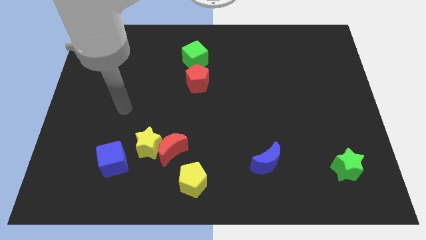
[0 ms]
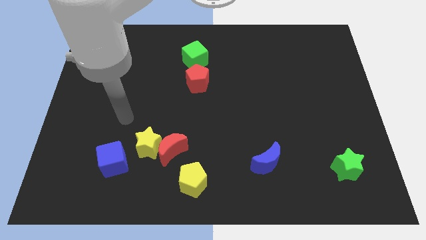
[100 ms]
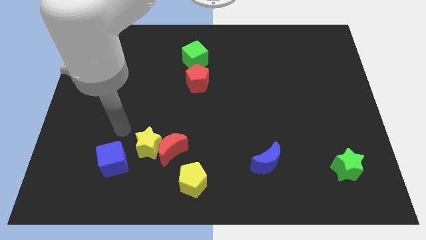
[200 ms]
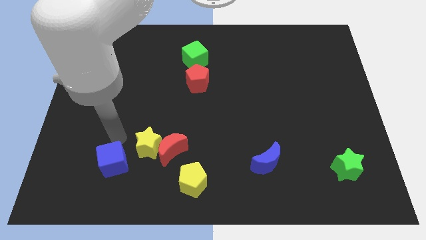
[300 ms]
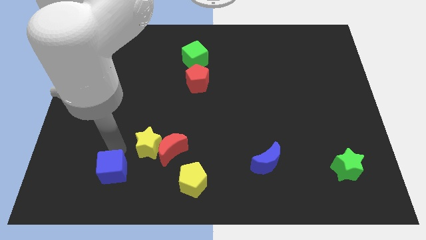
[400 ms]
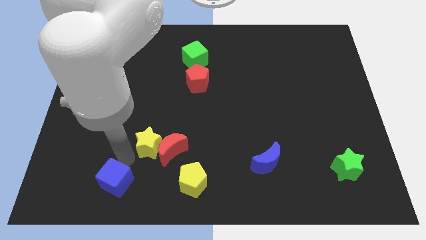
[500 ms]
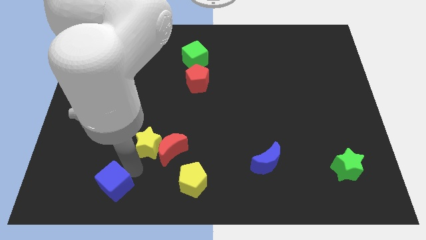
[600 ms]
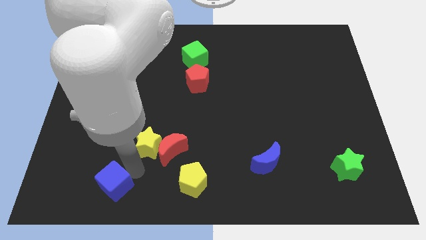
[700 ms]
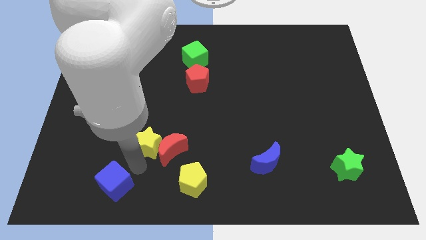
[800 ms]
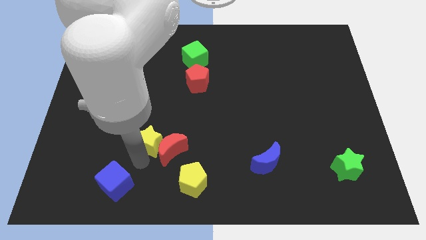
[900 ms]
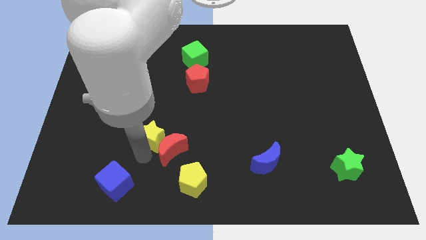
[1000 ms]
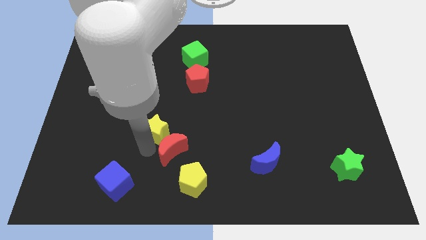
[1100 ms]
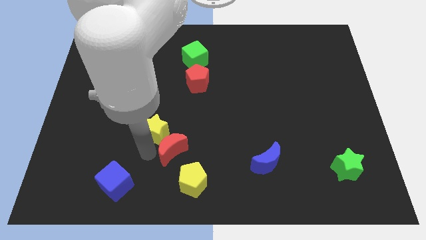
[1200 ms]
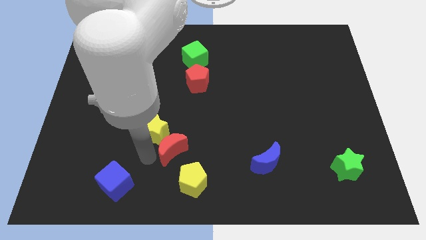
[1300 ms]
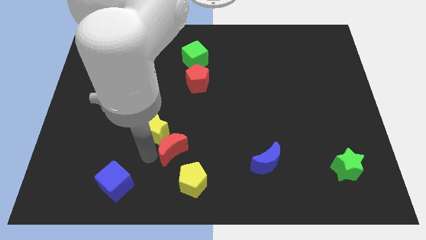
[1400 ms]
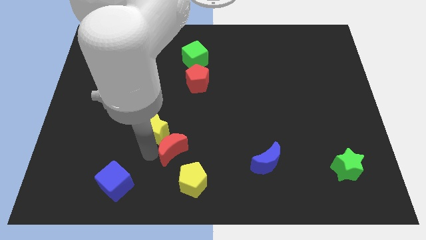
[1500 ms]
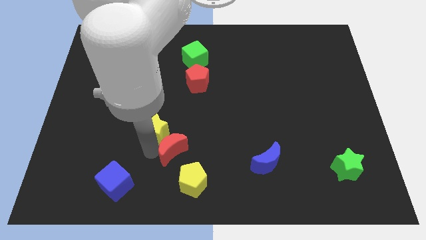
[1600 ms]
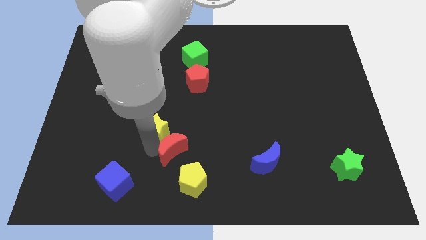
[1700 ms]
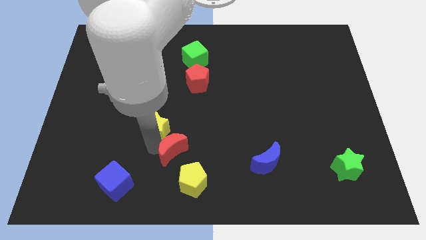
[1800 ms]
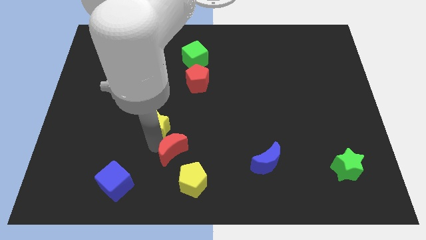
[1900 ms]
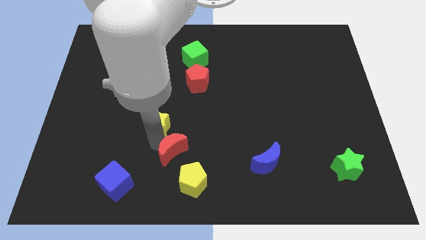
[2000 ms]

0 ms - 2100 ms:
pull the yellow star apart from the red moon and blue cube

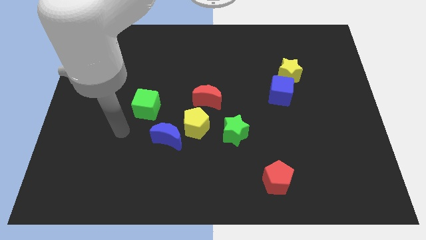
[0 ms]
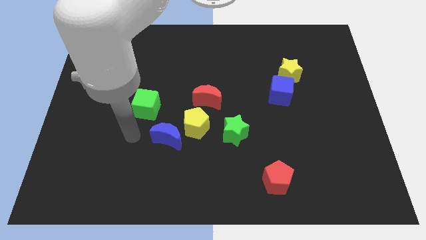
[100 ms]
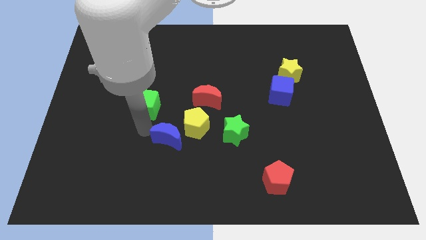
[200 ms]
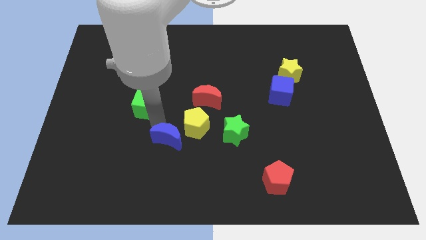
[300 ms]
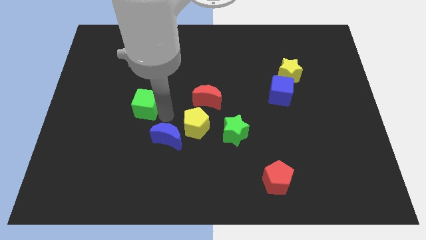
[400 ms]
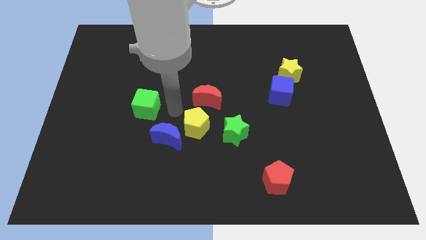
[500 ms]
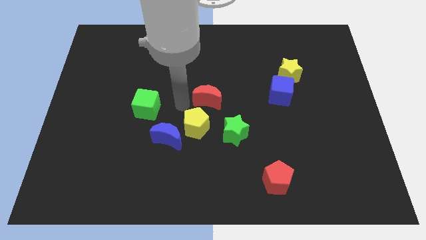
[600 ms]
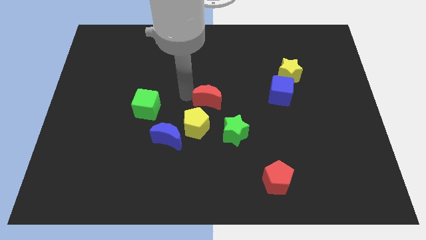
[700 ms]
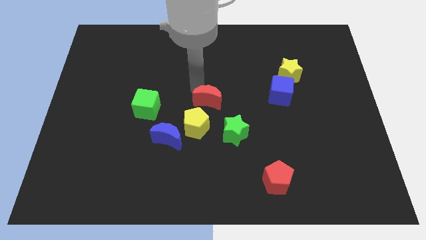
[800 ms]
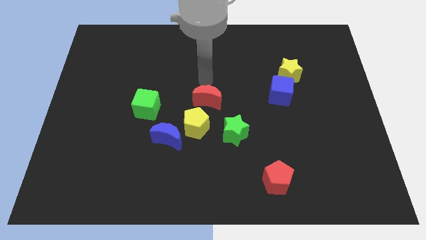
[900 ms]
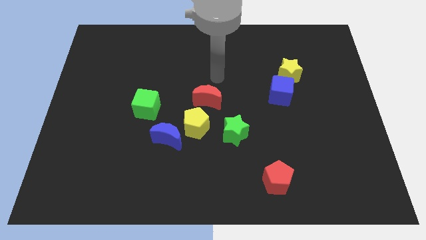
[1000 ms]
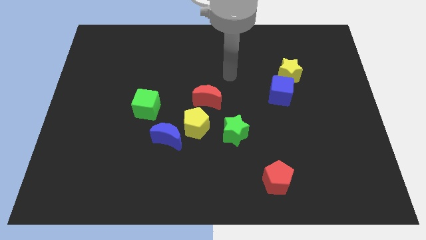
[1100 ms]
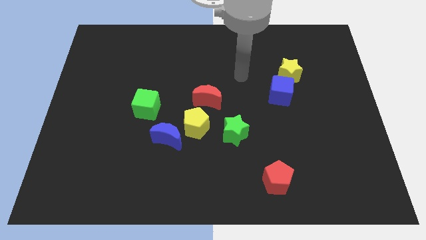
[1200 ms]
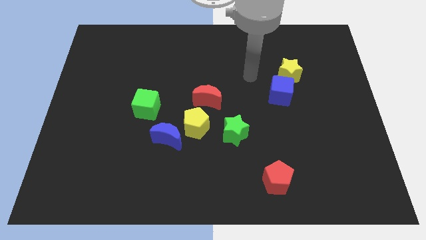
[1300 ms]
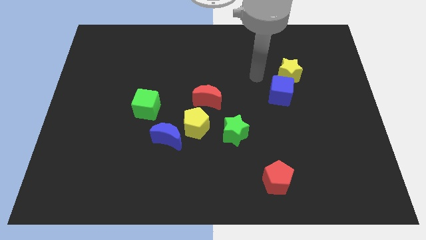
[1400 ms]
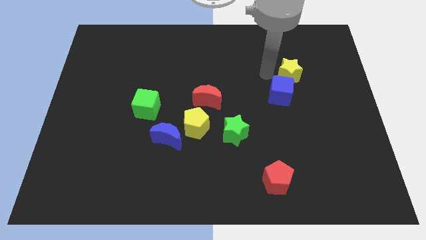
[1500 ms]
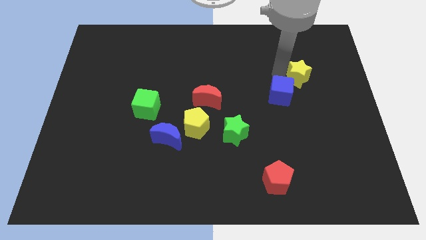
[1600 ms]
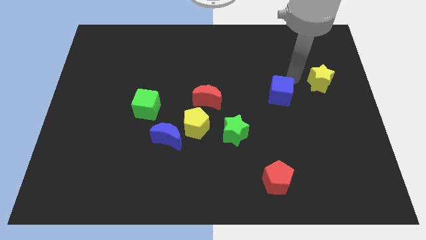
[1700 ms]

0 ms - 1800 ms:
move the blue cube away from the yellow star

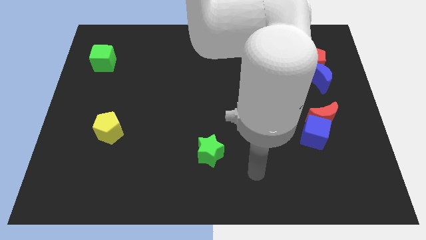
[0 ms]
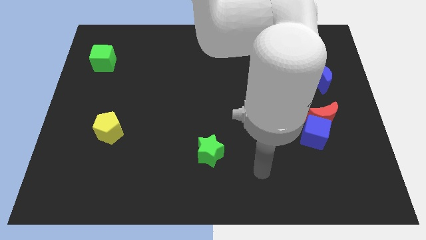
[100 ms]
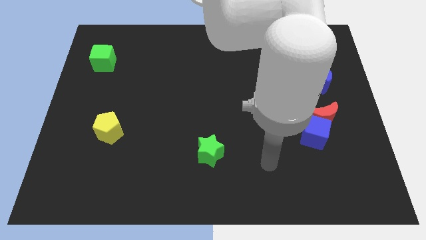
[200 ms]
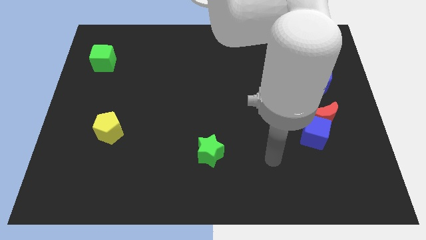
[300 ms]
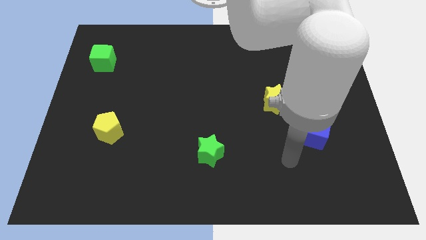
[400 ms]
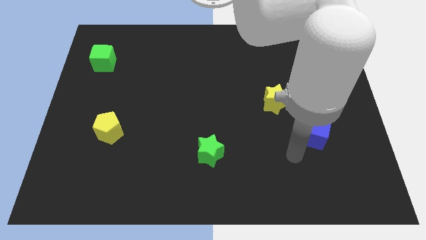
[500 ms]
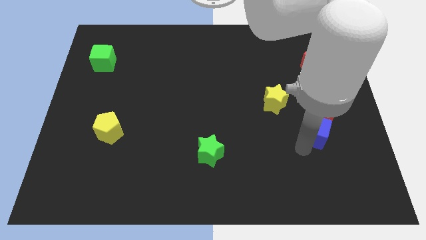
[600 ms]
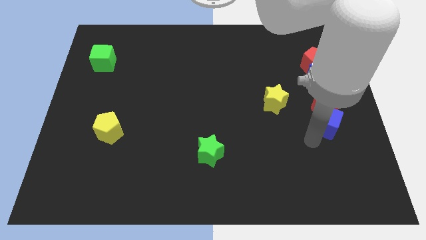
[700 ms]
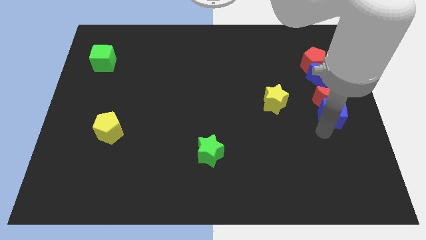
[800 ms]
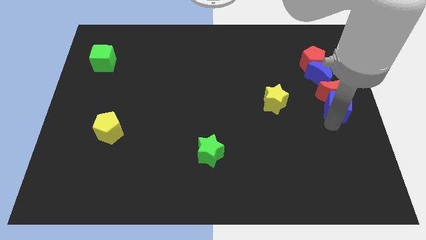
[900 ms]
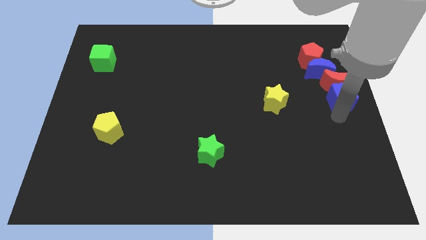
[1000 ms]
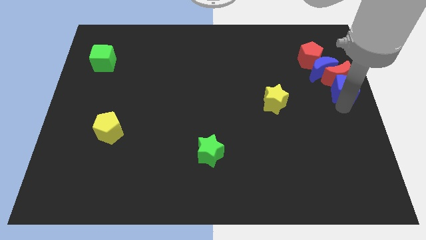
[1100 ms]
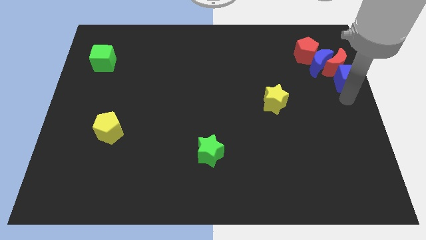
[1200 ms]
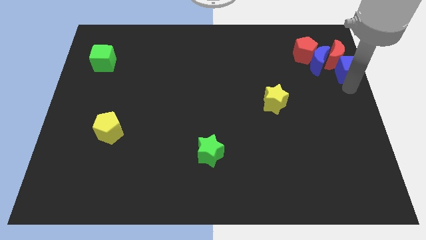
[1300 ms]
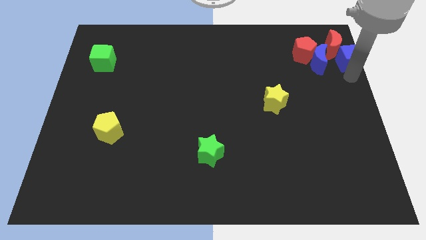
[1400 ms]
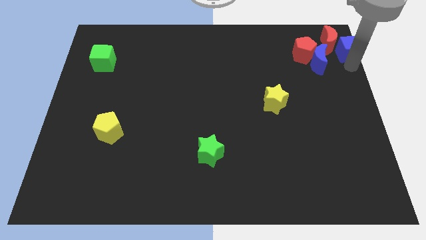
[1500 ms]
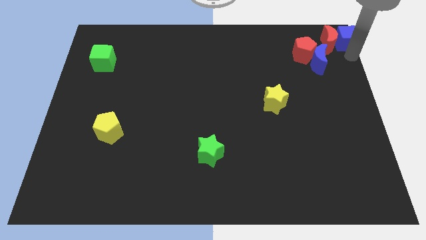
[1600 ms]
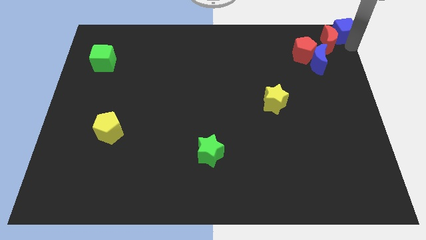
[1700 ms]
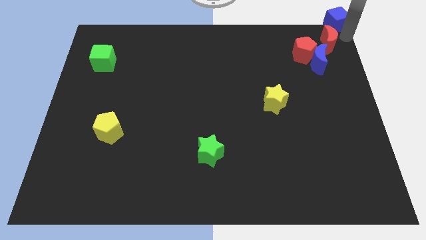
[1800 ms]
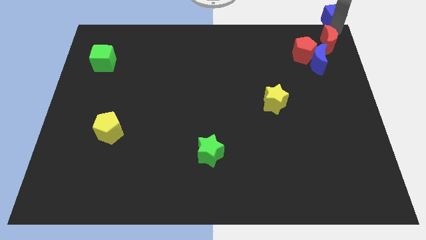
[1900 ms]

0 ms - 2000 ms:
separate the red moon from the blue cube

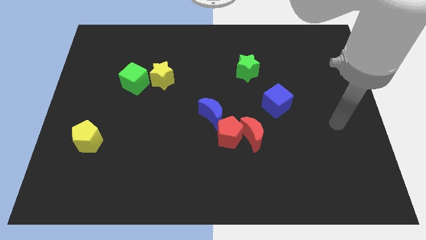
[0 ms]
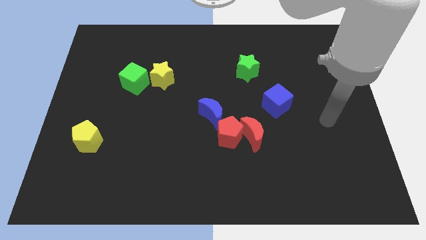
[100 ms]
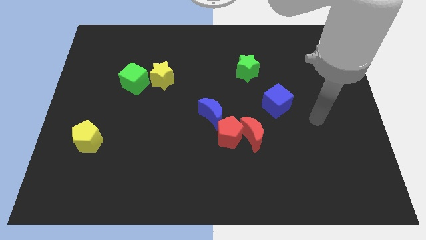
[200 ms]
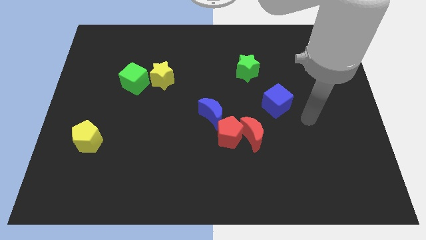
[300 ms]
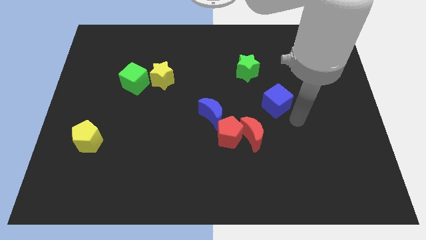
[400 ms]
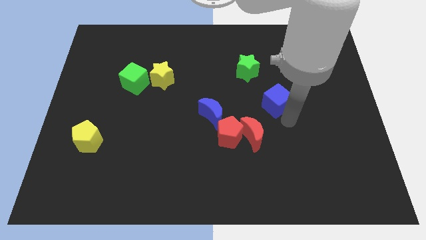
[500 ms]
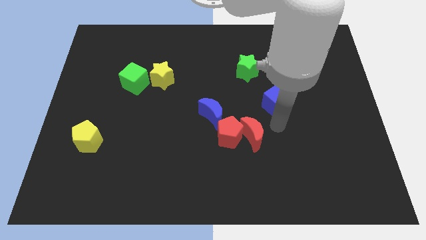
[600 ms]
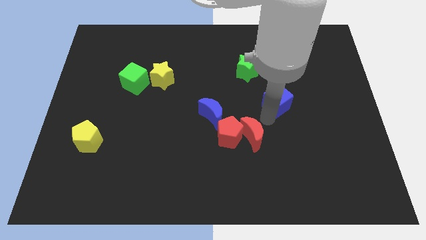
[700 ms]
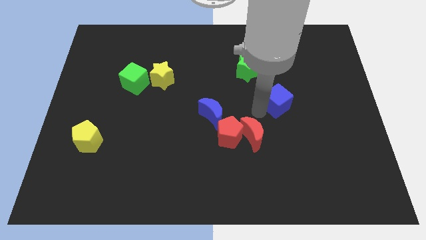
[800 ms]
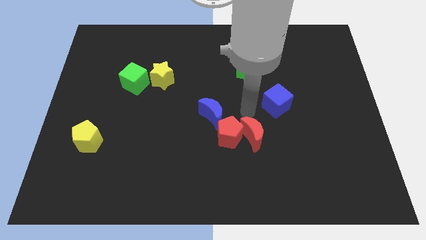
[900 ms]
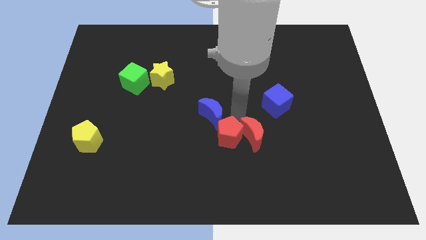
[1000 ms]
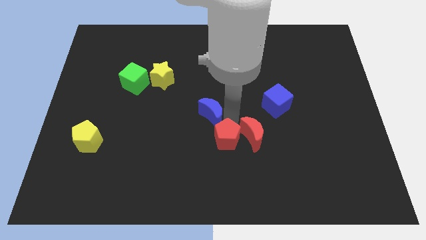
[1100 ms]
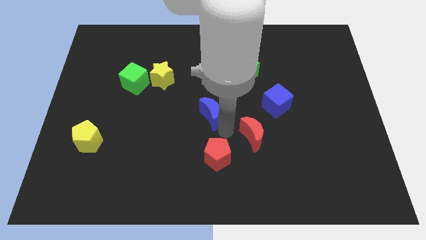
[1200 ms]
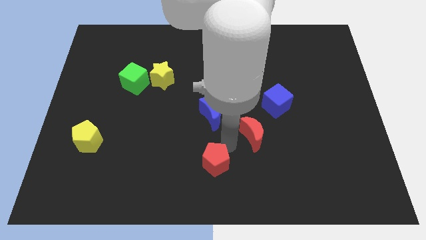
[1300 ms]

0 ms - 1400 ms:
move the red moon away from the red pentagon

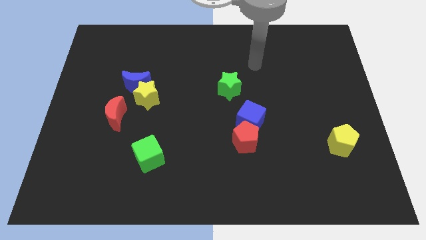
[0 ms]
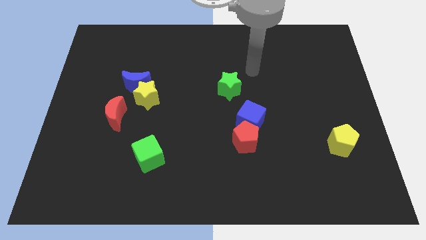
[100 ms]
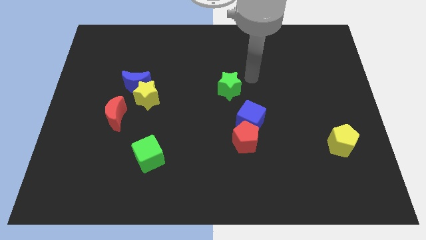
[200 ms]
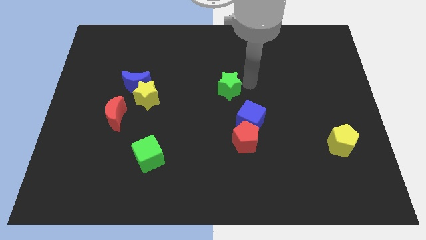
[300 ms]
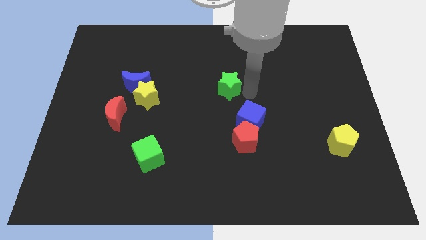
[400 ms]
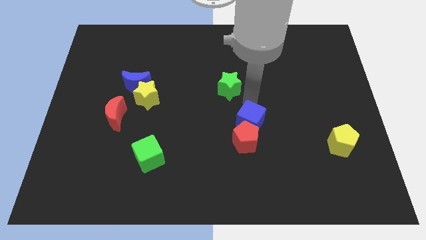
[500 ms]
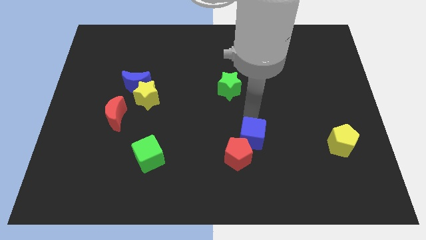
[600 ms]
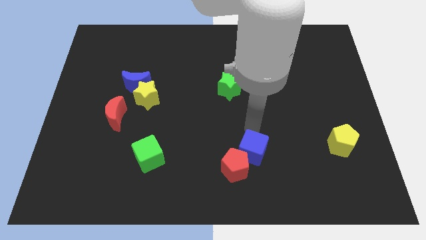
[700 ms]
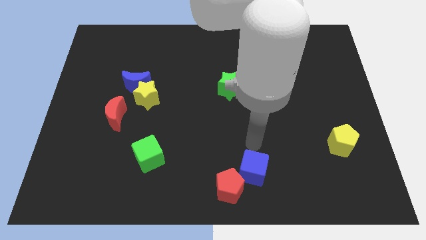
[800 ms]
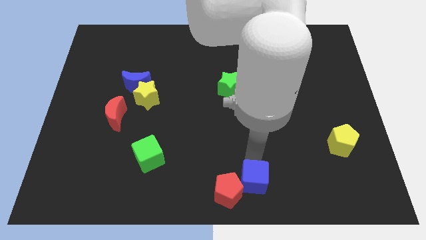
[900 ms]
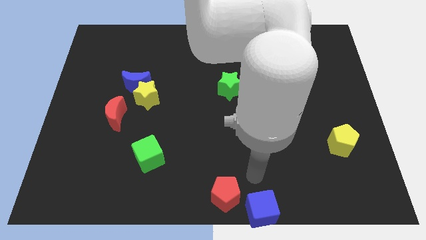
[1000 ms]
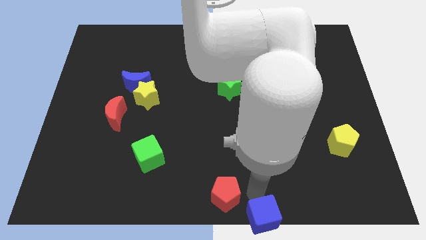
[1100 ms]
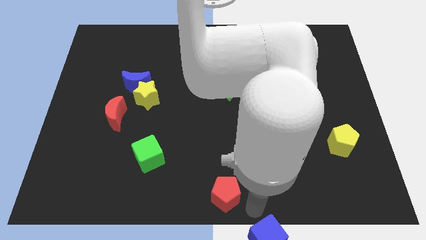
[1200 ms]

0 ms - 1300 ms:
pull the red pentagon apart from the blue cube

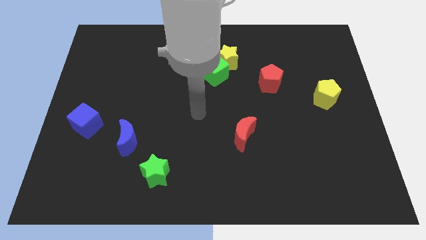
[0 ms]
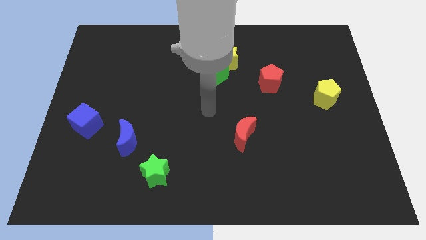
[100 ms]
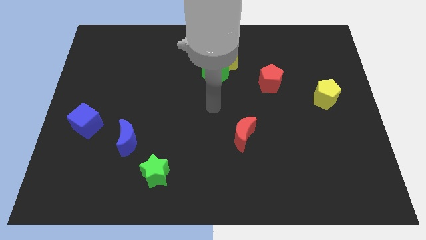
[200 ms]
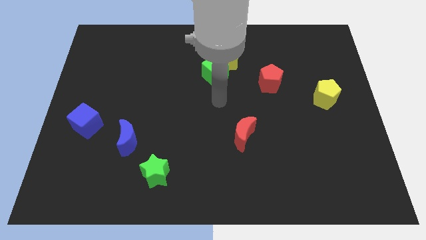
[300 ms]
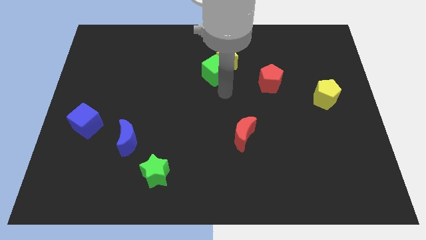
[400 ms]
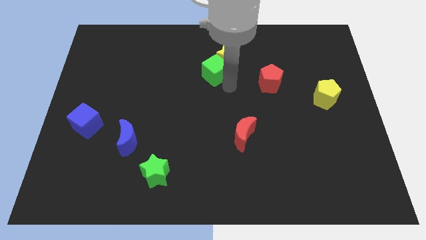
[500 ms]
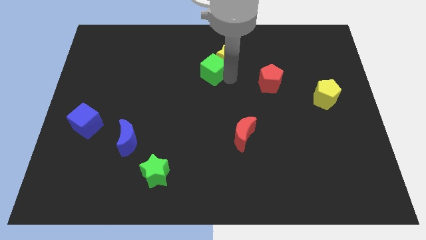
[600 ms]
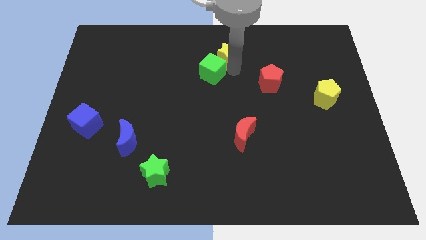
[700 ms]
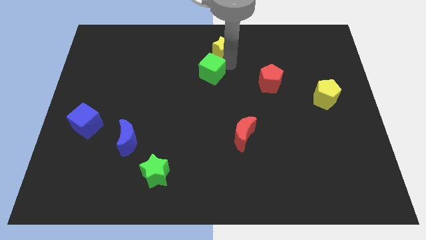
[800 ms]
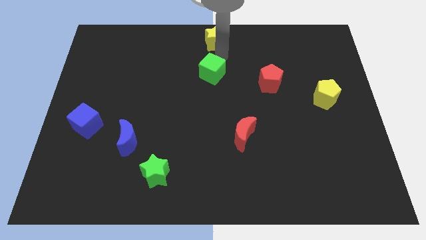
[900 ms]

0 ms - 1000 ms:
move the green cube away from the yellow star
